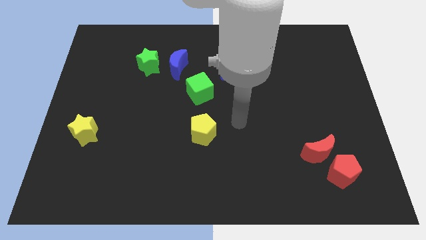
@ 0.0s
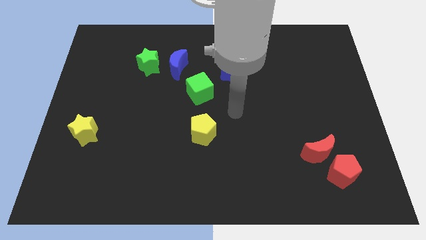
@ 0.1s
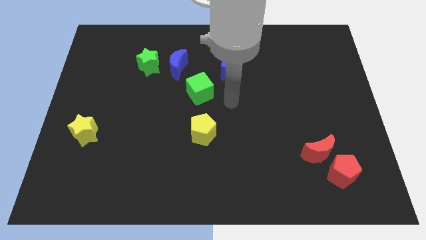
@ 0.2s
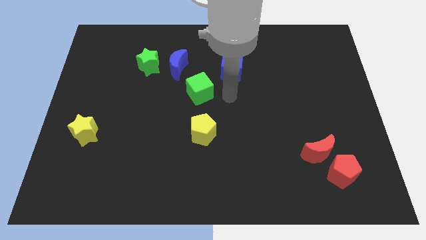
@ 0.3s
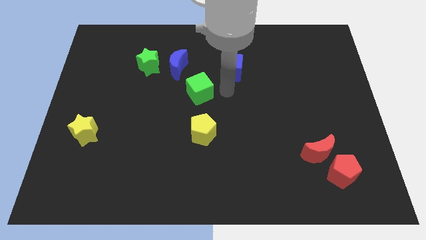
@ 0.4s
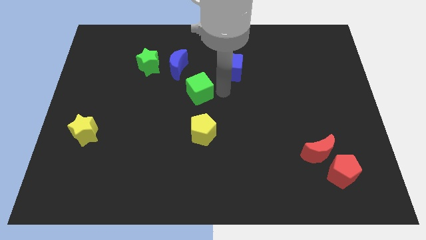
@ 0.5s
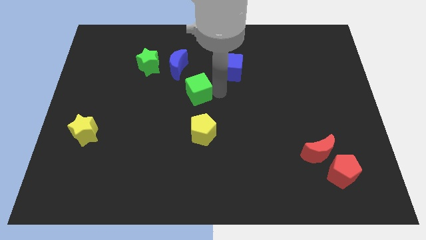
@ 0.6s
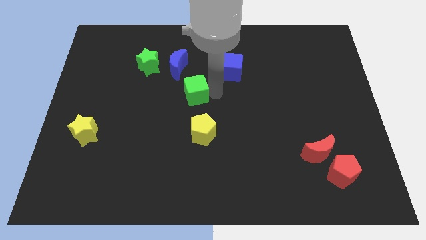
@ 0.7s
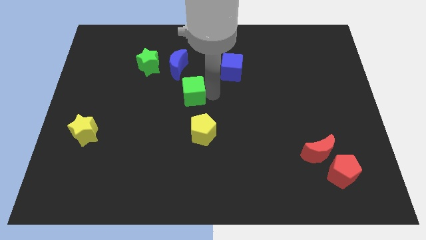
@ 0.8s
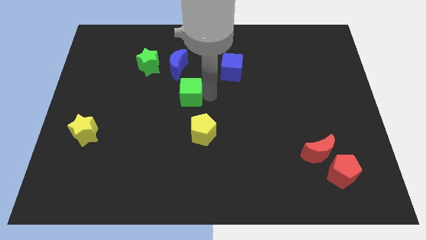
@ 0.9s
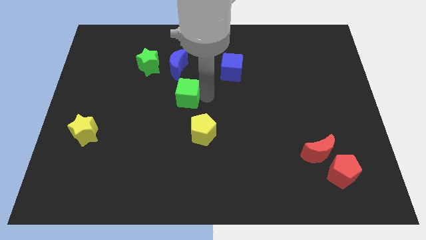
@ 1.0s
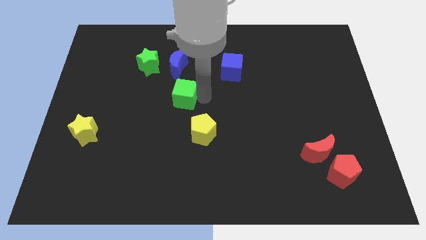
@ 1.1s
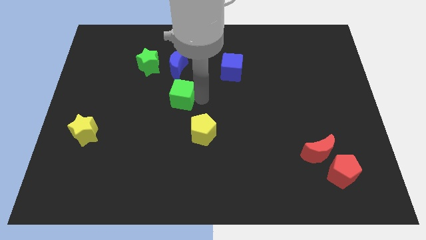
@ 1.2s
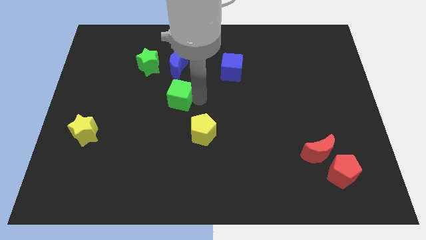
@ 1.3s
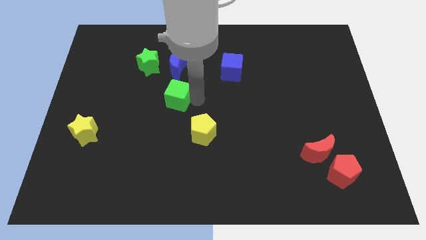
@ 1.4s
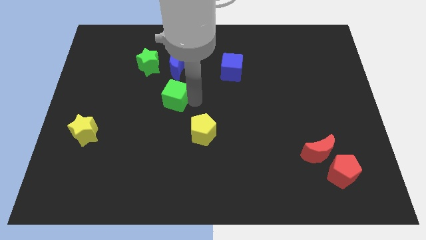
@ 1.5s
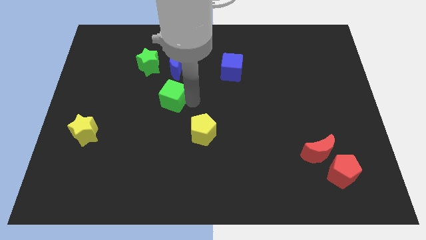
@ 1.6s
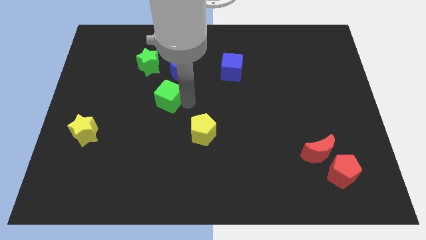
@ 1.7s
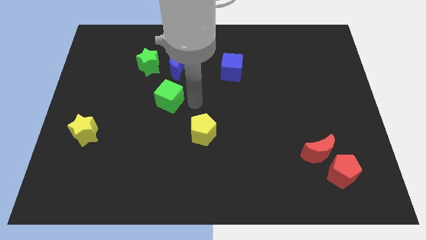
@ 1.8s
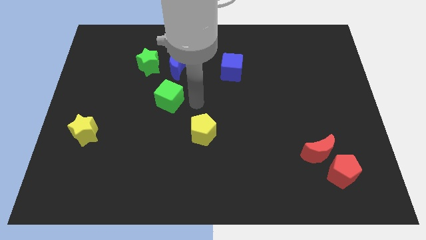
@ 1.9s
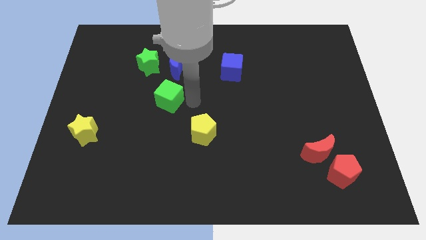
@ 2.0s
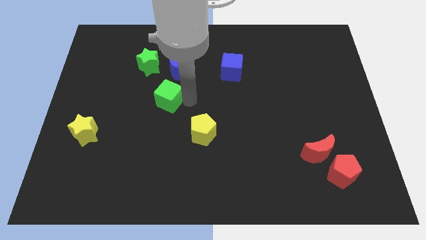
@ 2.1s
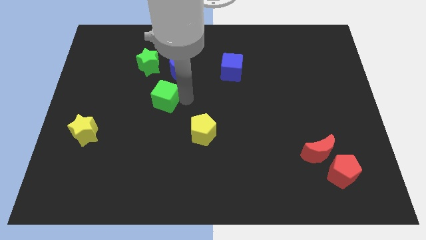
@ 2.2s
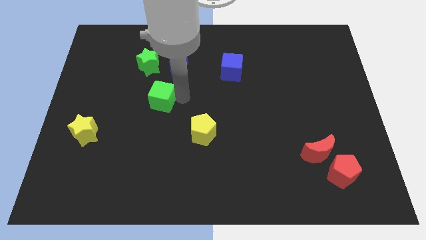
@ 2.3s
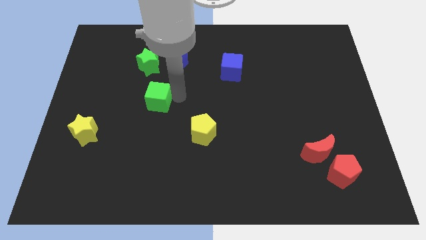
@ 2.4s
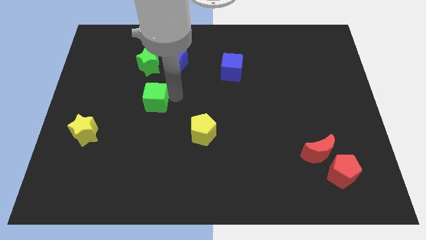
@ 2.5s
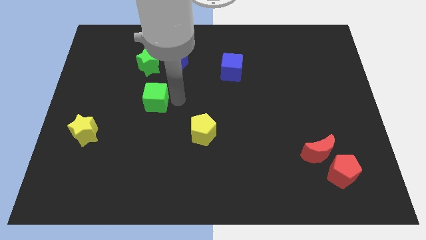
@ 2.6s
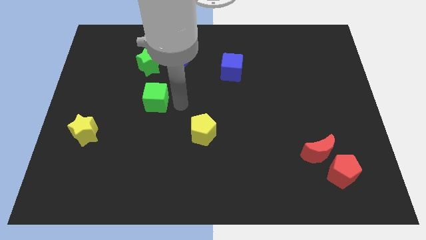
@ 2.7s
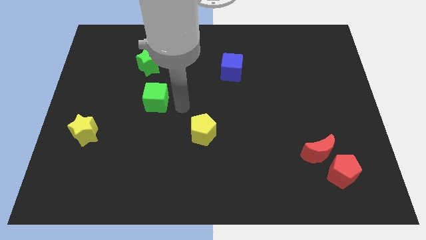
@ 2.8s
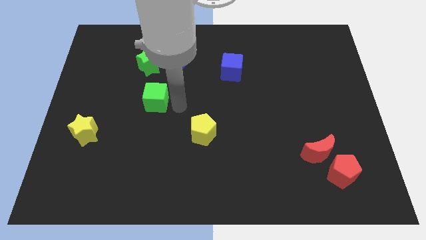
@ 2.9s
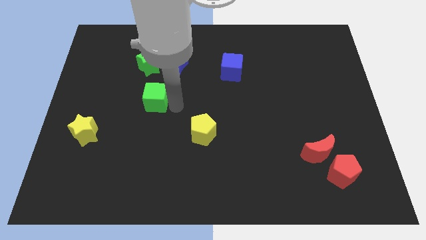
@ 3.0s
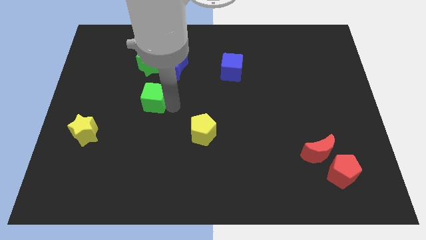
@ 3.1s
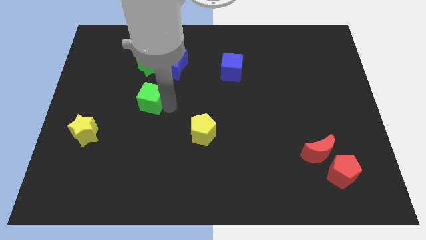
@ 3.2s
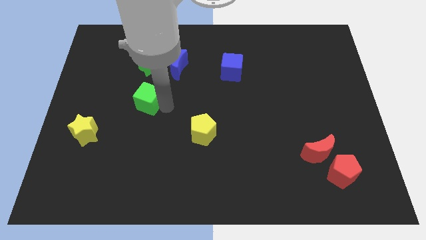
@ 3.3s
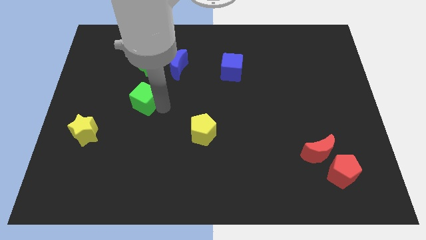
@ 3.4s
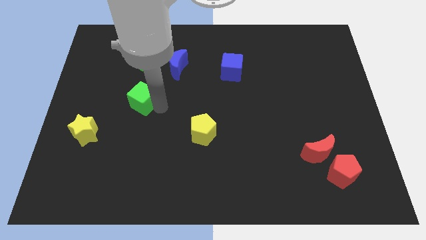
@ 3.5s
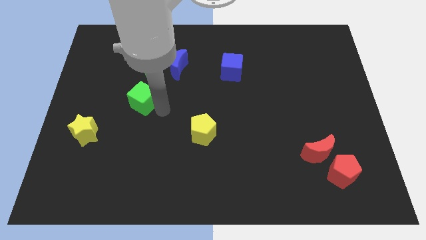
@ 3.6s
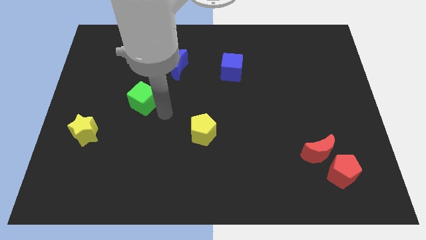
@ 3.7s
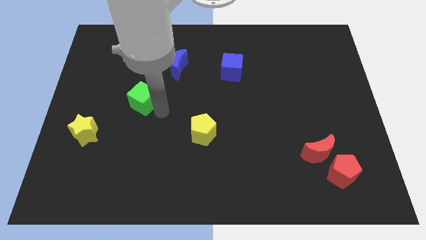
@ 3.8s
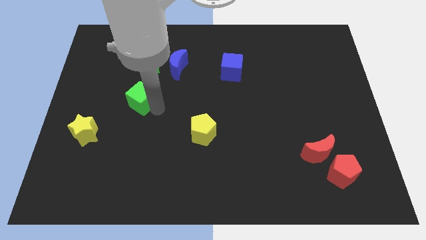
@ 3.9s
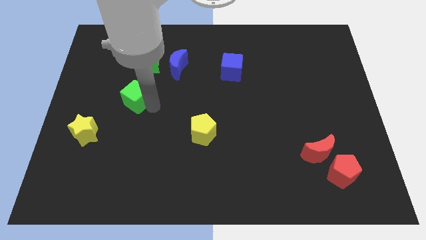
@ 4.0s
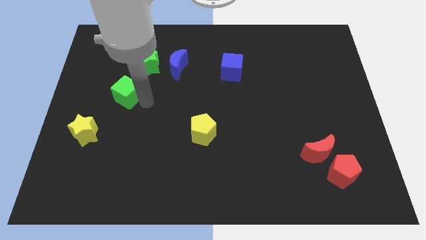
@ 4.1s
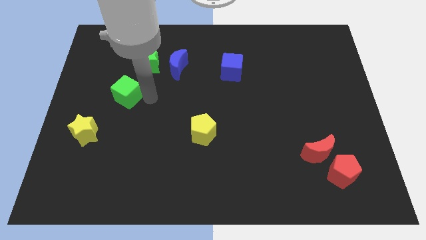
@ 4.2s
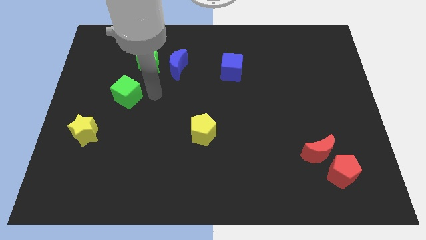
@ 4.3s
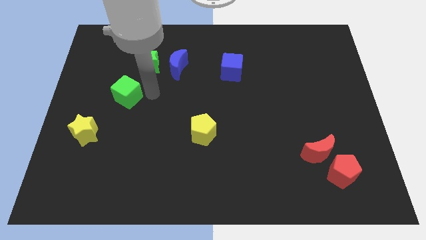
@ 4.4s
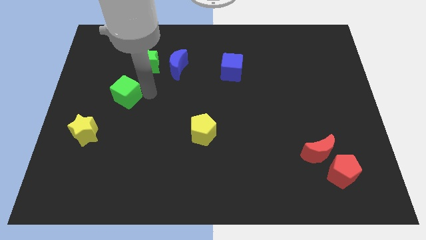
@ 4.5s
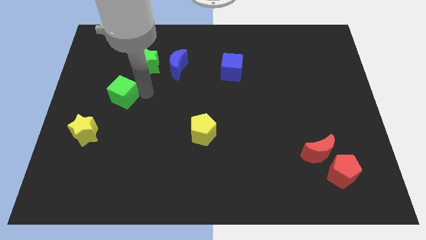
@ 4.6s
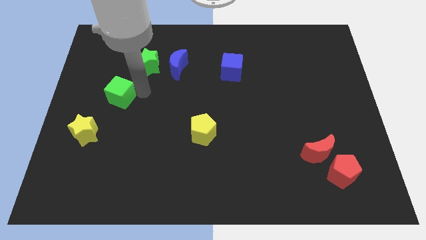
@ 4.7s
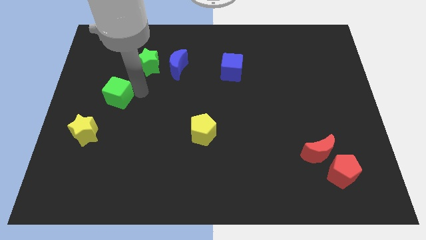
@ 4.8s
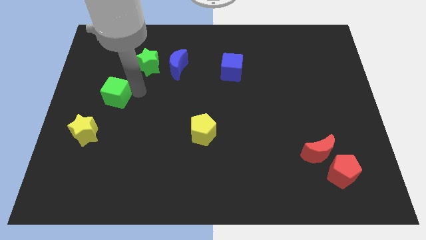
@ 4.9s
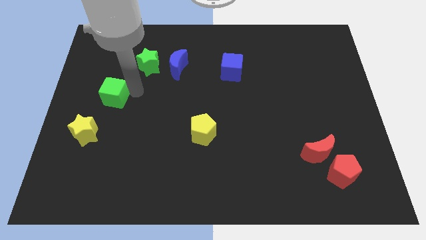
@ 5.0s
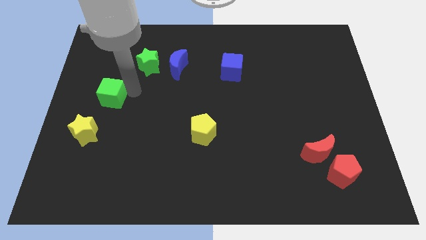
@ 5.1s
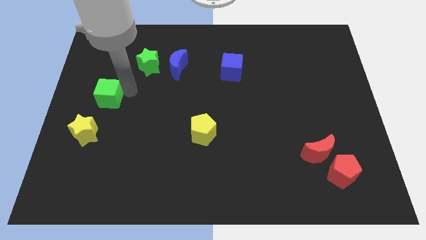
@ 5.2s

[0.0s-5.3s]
move the green cube to the center left

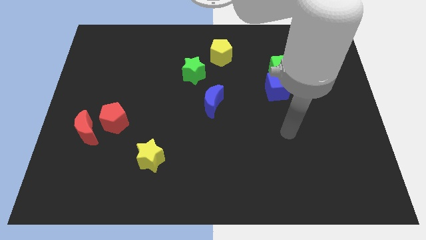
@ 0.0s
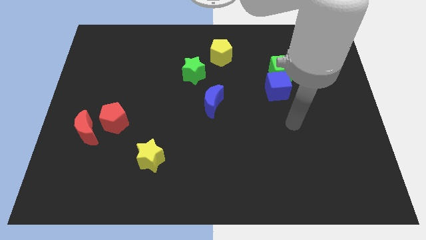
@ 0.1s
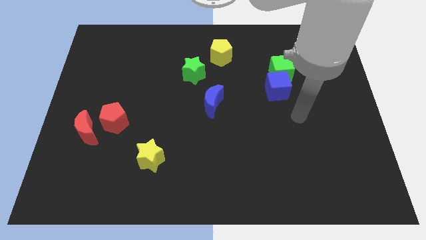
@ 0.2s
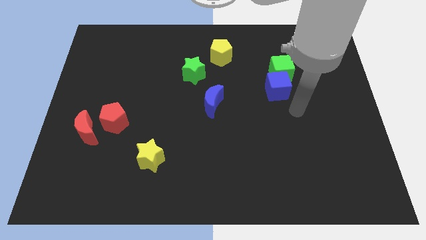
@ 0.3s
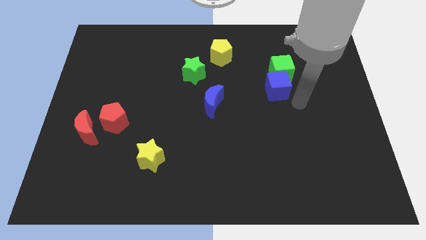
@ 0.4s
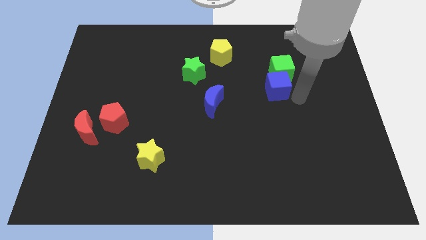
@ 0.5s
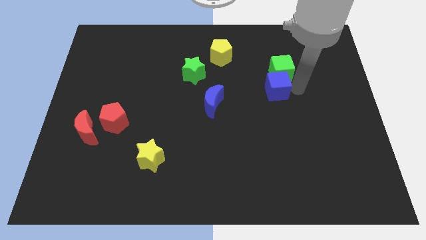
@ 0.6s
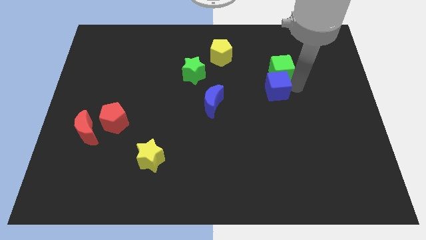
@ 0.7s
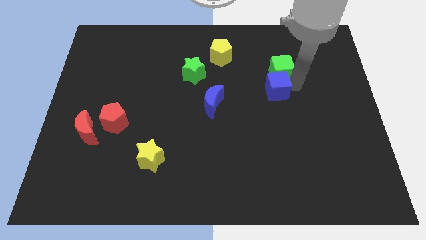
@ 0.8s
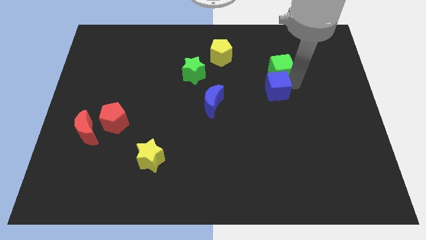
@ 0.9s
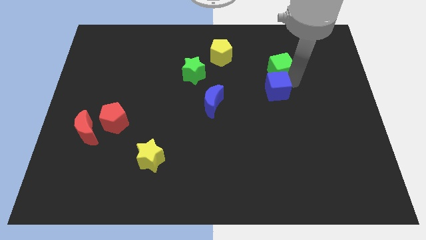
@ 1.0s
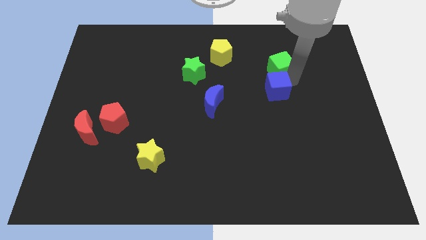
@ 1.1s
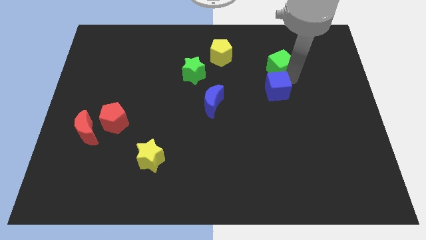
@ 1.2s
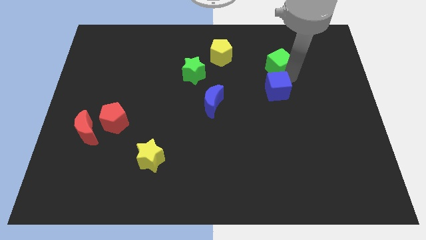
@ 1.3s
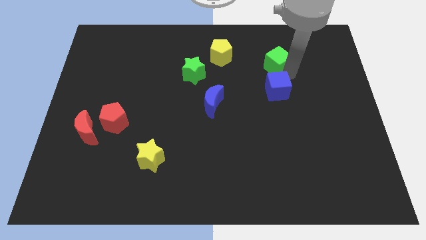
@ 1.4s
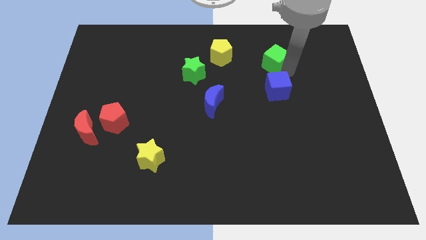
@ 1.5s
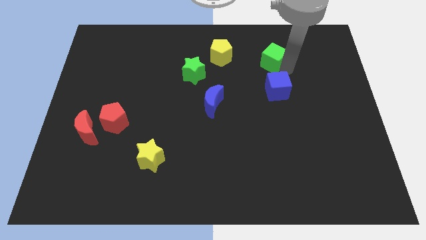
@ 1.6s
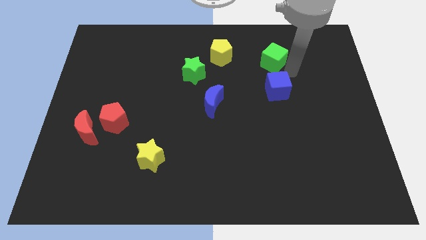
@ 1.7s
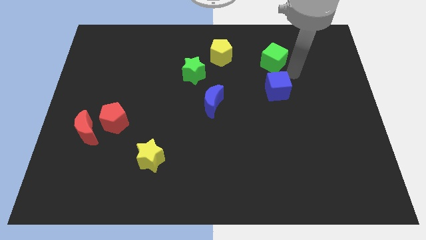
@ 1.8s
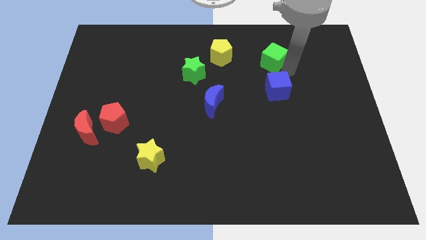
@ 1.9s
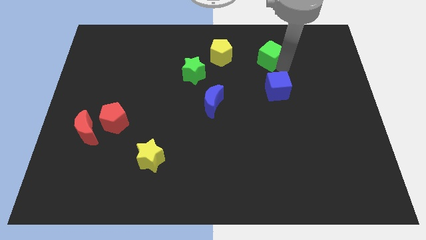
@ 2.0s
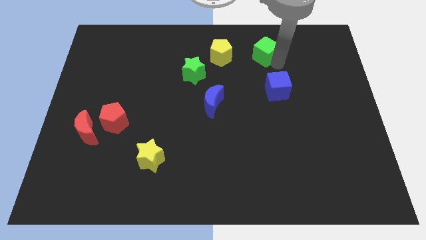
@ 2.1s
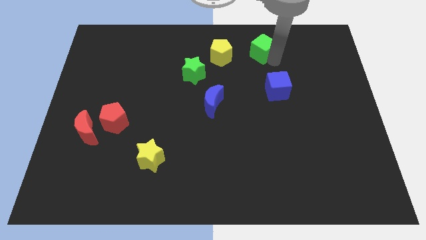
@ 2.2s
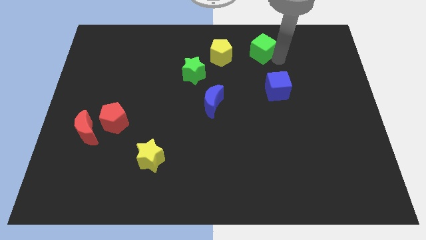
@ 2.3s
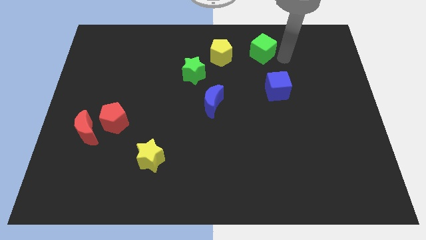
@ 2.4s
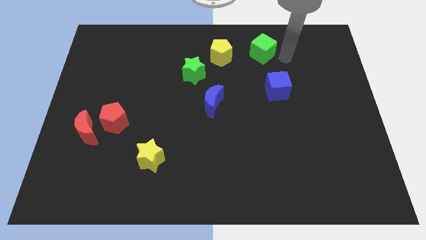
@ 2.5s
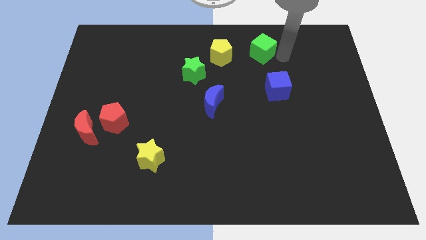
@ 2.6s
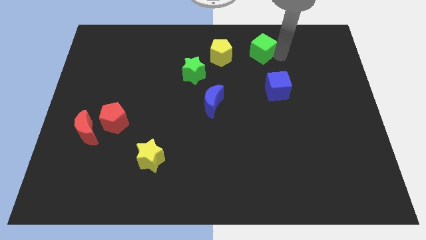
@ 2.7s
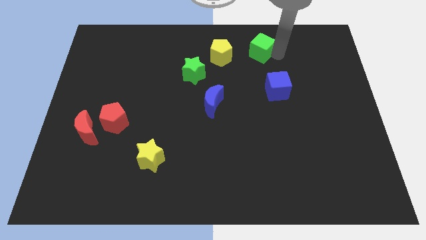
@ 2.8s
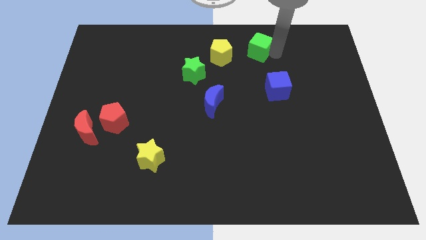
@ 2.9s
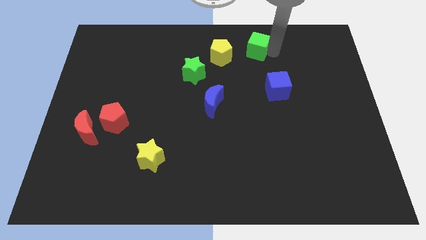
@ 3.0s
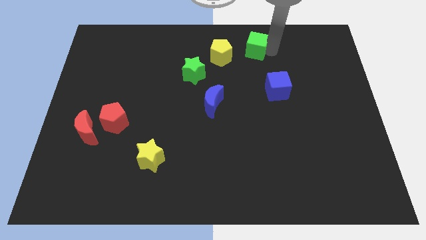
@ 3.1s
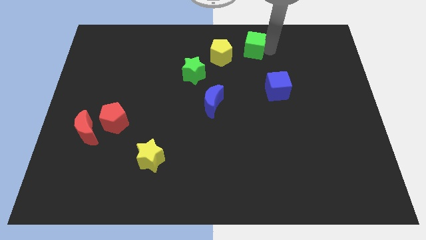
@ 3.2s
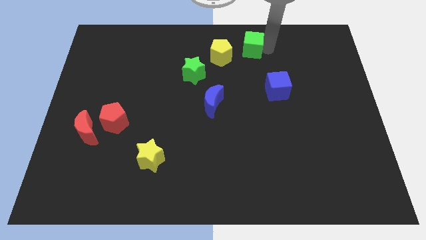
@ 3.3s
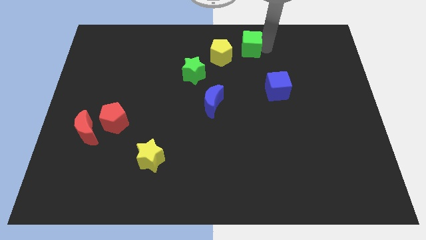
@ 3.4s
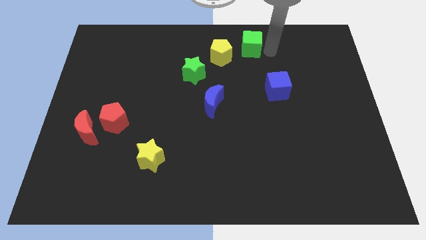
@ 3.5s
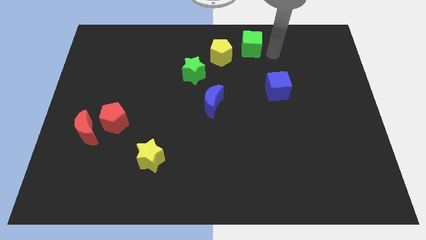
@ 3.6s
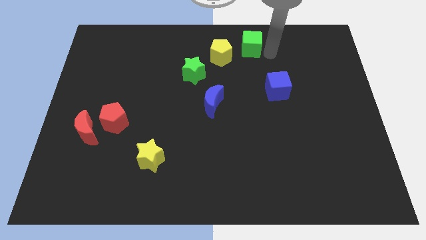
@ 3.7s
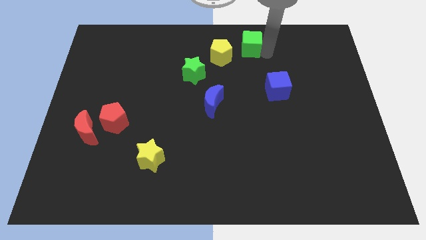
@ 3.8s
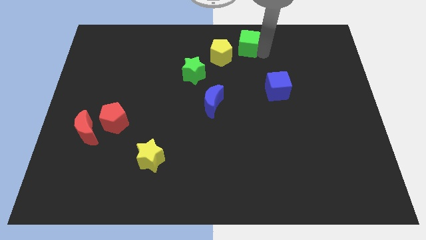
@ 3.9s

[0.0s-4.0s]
push the green cube to the top
